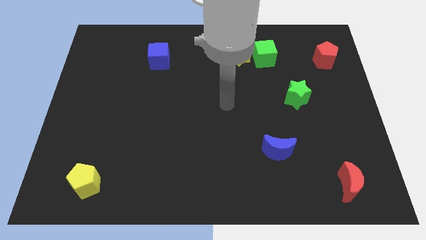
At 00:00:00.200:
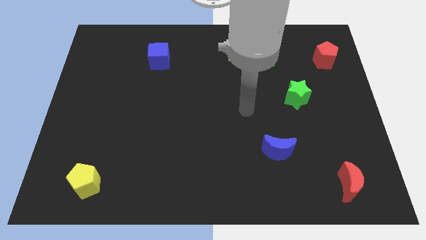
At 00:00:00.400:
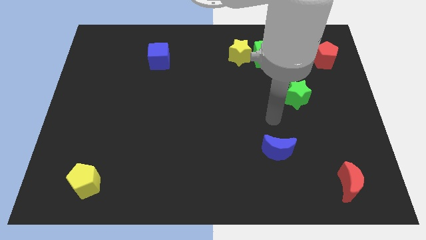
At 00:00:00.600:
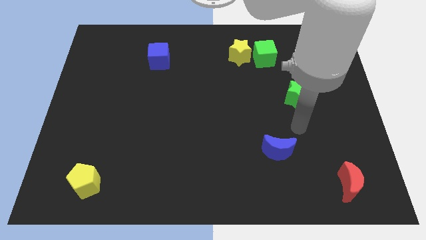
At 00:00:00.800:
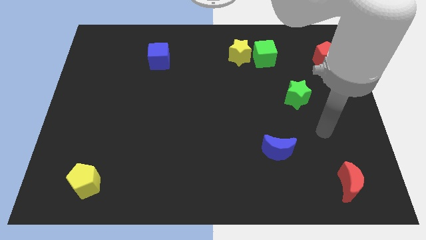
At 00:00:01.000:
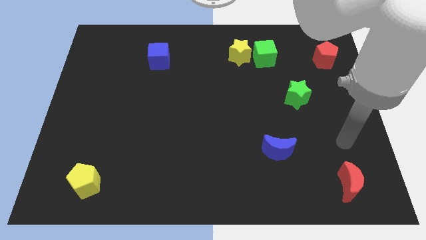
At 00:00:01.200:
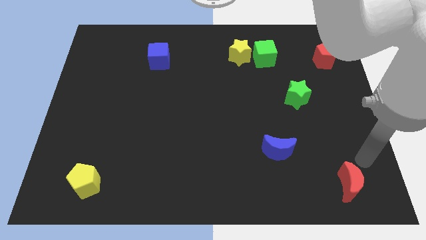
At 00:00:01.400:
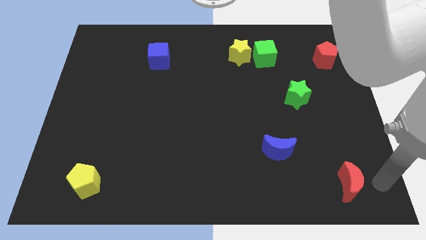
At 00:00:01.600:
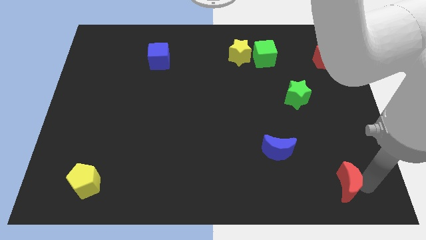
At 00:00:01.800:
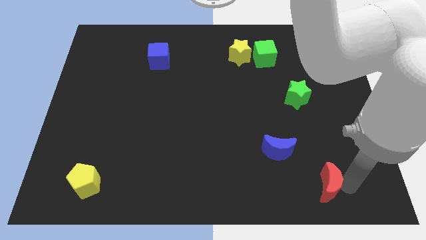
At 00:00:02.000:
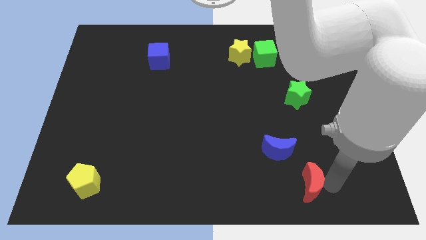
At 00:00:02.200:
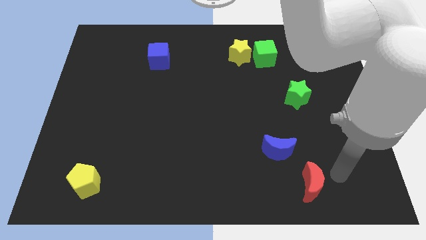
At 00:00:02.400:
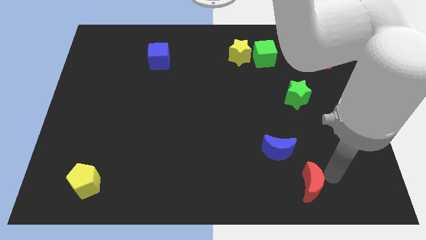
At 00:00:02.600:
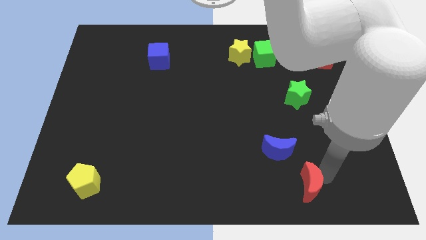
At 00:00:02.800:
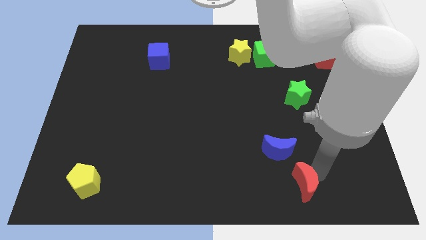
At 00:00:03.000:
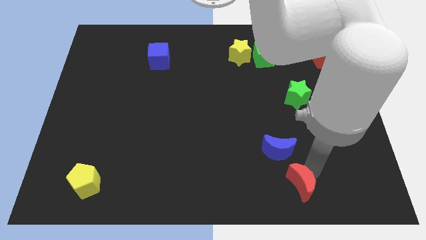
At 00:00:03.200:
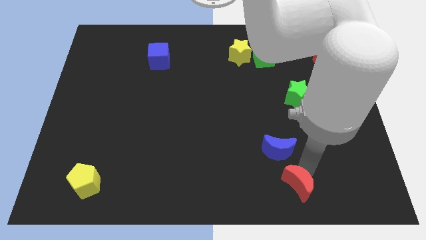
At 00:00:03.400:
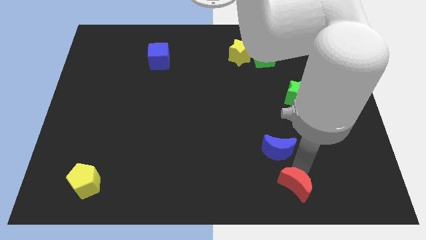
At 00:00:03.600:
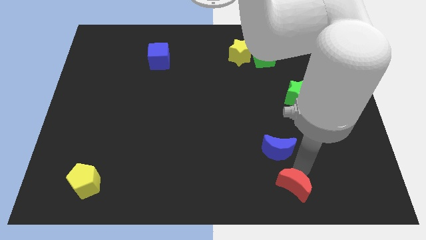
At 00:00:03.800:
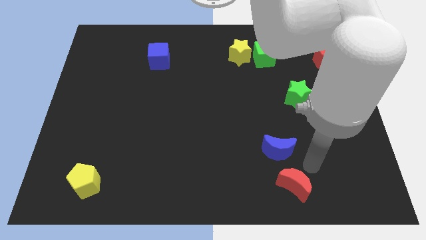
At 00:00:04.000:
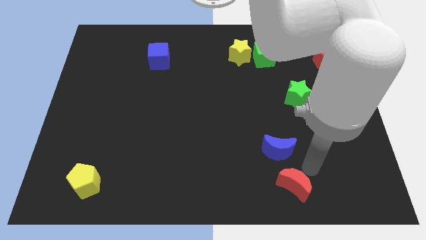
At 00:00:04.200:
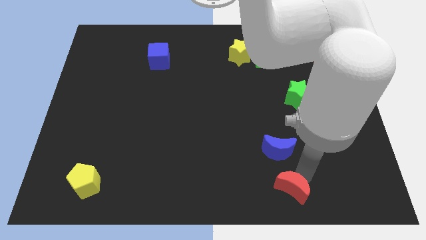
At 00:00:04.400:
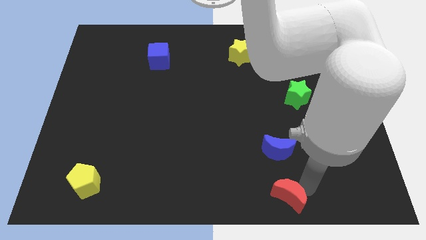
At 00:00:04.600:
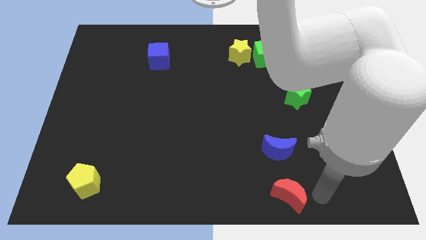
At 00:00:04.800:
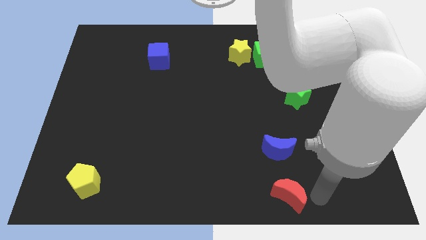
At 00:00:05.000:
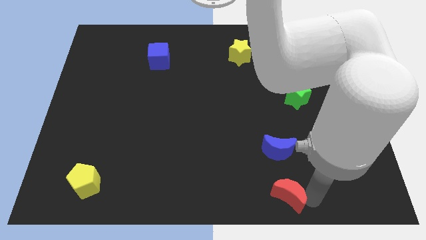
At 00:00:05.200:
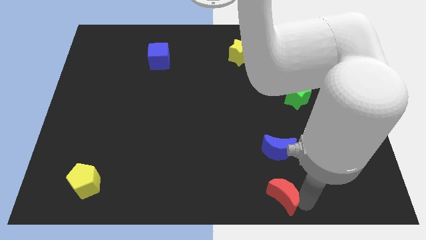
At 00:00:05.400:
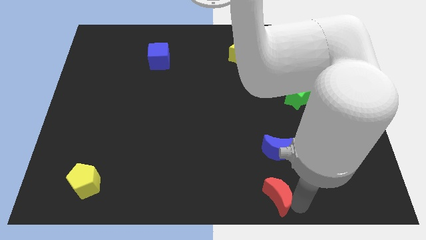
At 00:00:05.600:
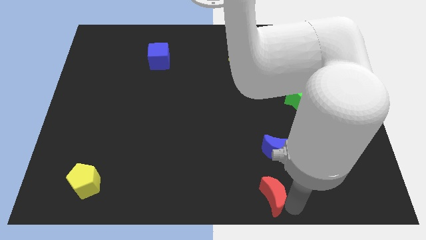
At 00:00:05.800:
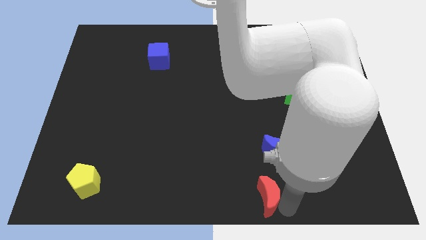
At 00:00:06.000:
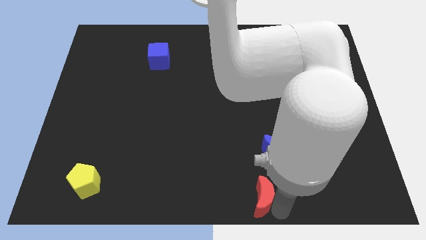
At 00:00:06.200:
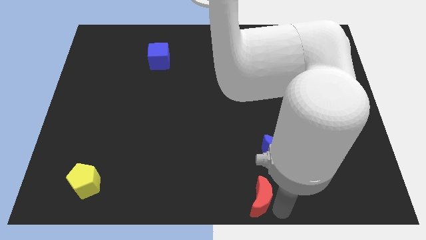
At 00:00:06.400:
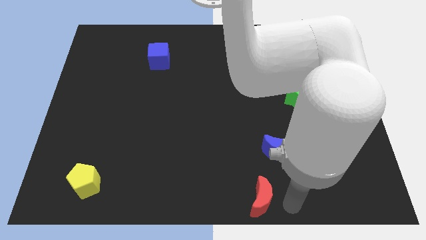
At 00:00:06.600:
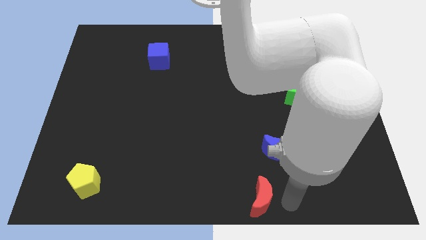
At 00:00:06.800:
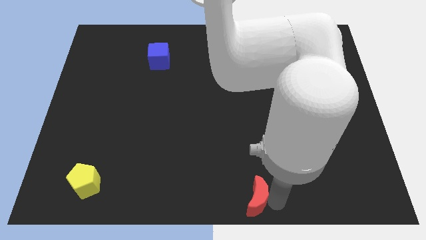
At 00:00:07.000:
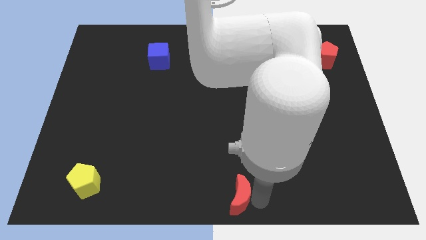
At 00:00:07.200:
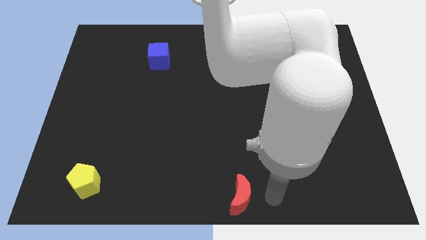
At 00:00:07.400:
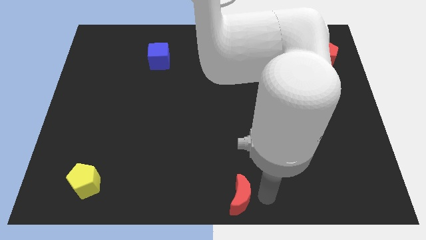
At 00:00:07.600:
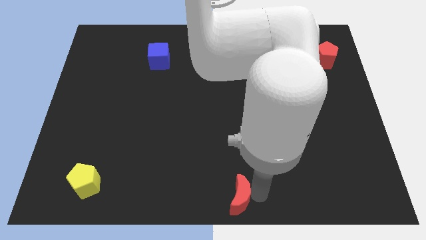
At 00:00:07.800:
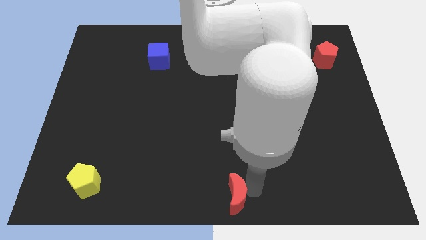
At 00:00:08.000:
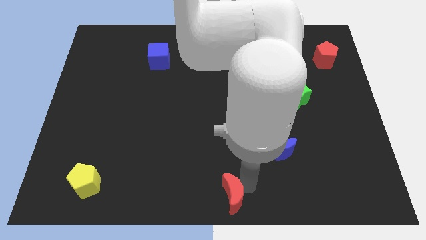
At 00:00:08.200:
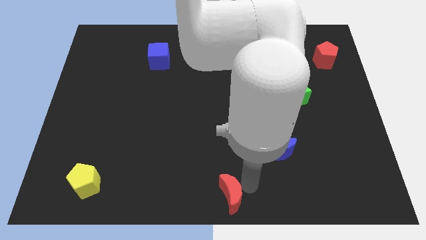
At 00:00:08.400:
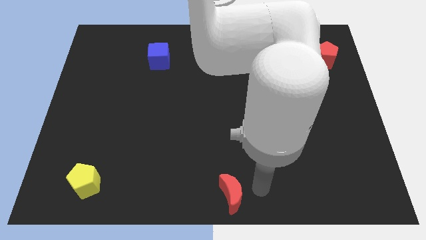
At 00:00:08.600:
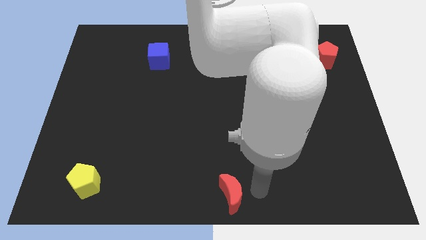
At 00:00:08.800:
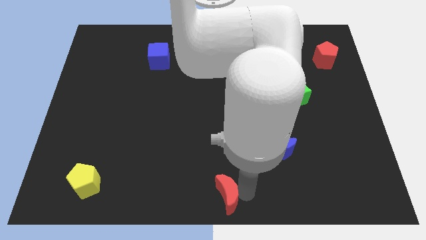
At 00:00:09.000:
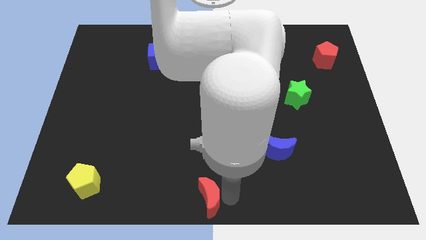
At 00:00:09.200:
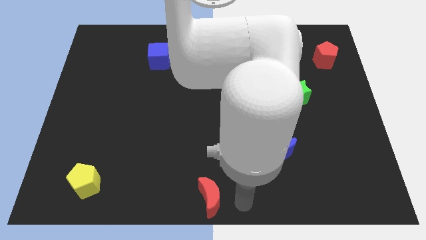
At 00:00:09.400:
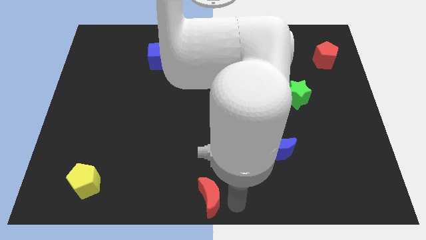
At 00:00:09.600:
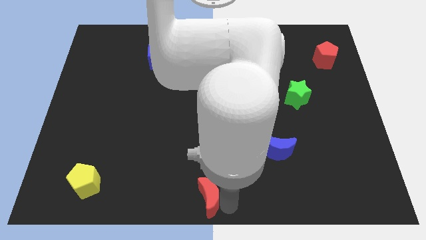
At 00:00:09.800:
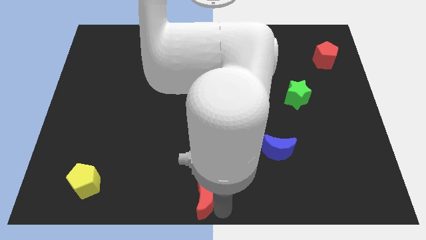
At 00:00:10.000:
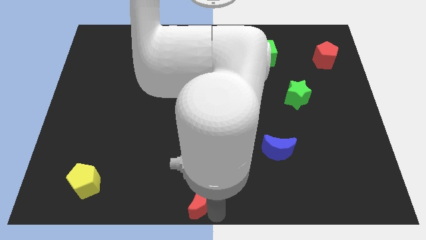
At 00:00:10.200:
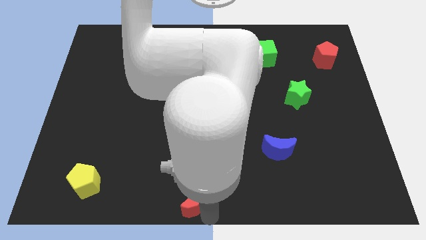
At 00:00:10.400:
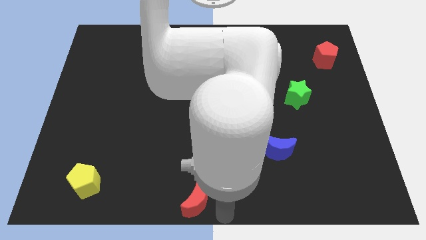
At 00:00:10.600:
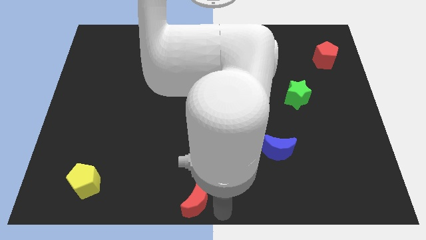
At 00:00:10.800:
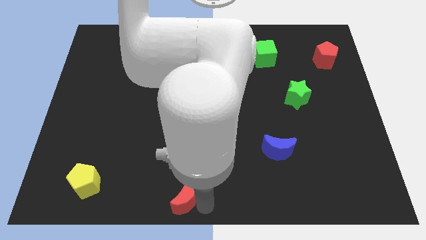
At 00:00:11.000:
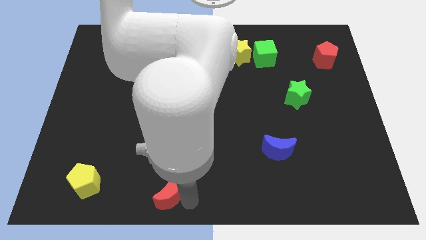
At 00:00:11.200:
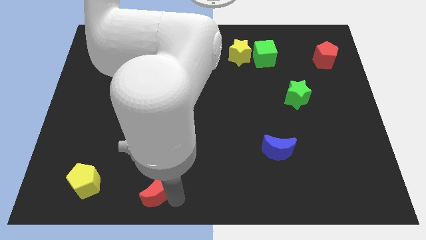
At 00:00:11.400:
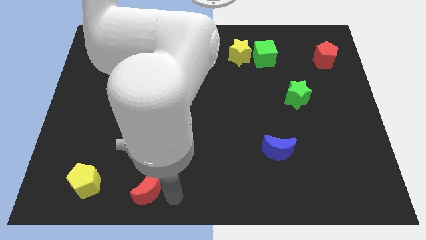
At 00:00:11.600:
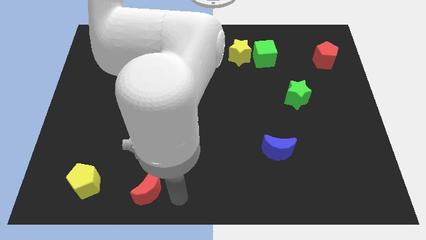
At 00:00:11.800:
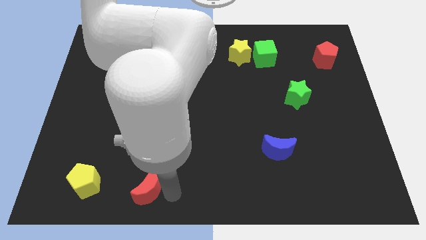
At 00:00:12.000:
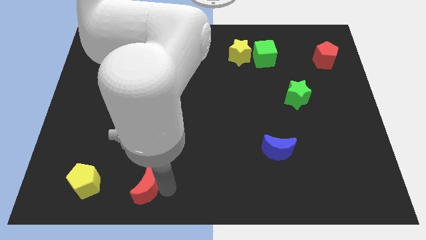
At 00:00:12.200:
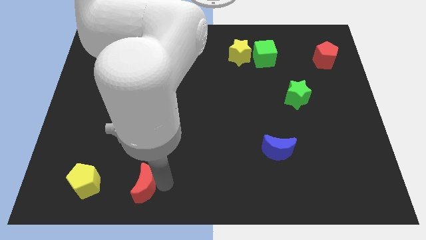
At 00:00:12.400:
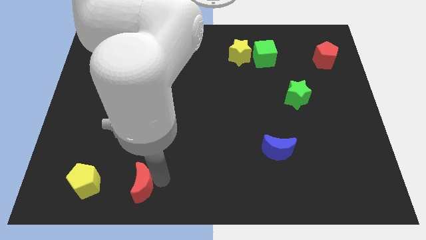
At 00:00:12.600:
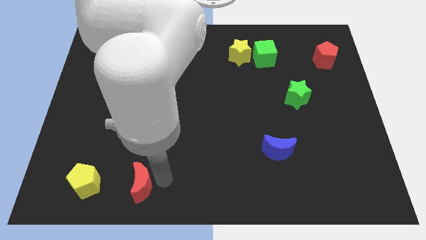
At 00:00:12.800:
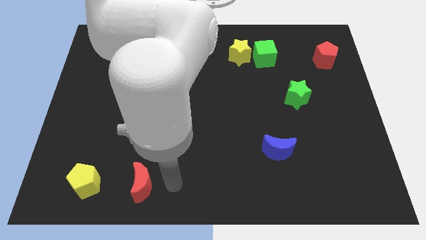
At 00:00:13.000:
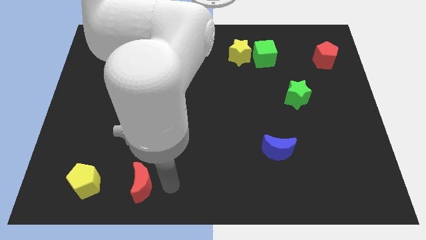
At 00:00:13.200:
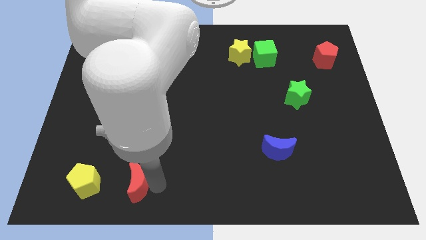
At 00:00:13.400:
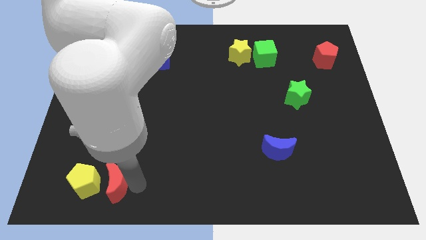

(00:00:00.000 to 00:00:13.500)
slide the red moon next to the yellow pentagon

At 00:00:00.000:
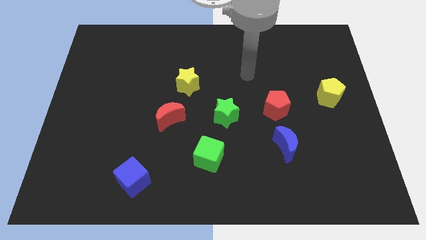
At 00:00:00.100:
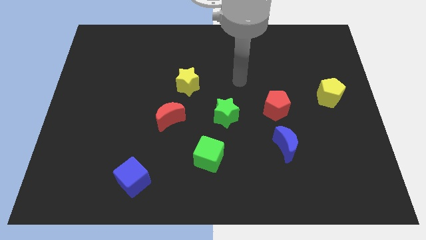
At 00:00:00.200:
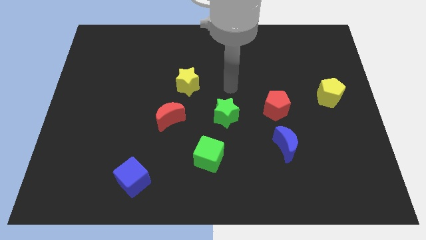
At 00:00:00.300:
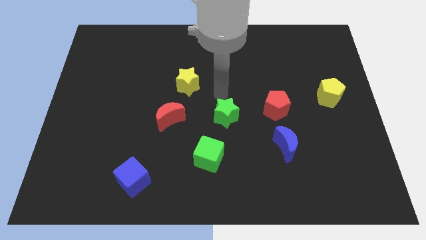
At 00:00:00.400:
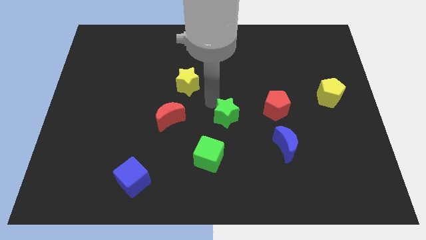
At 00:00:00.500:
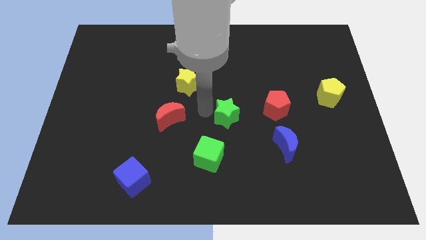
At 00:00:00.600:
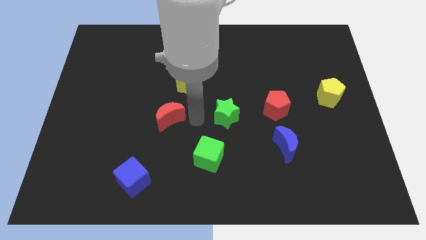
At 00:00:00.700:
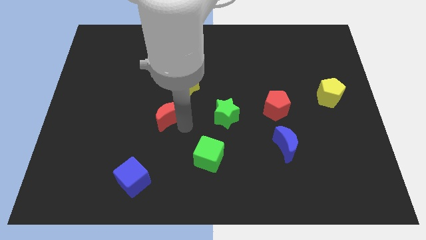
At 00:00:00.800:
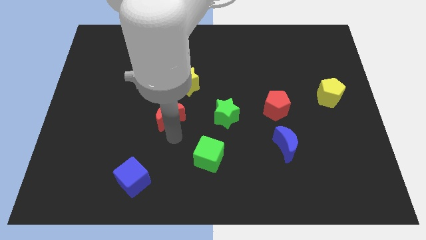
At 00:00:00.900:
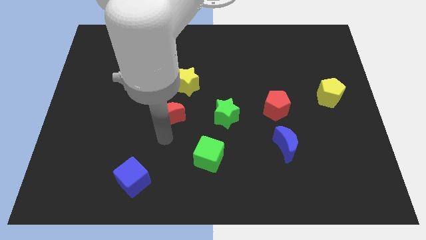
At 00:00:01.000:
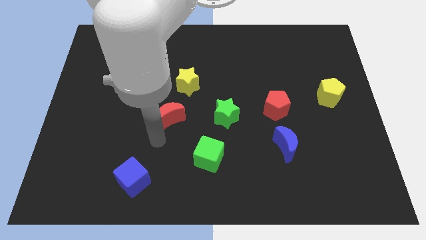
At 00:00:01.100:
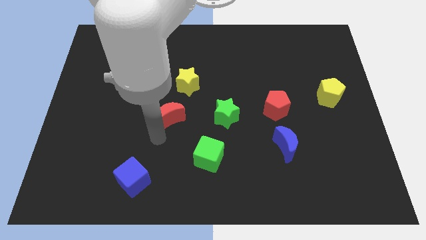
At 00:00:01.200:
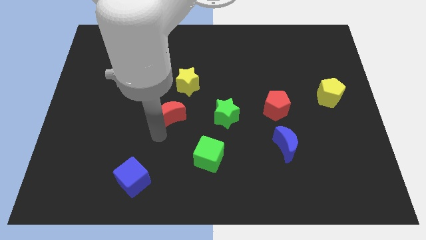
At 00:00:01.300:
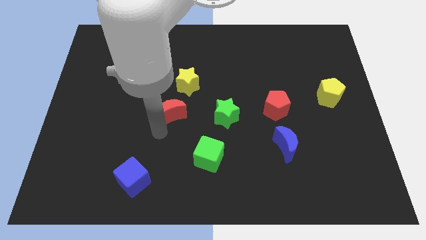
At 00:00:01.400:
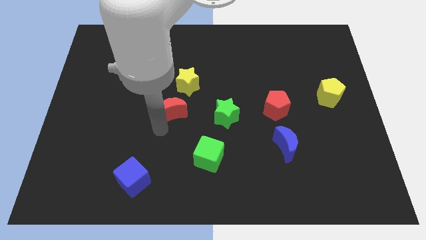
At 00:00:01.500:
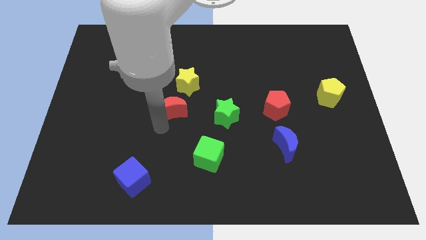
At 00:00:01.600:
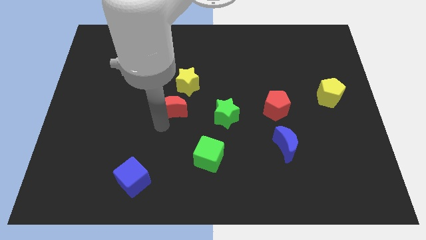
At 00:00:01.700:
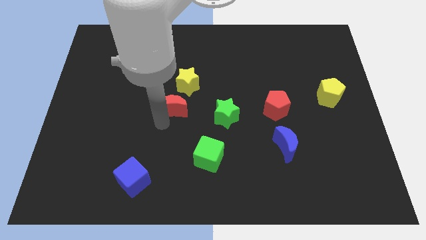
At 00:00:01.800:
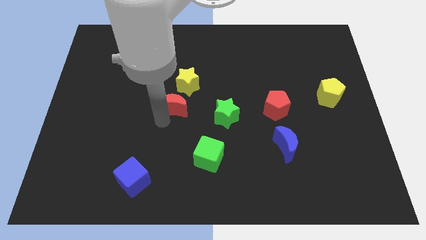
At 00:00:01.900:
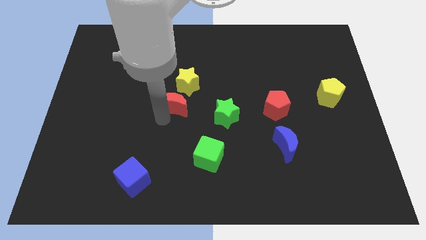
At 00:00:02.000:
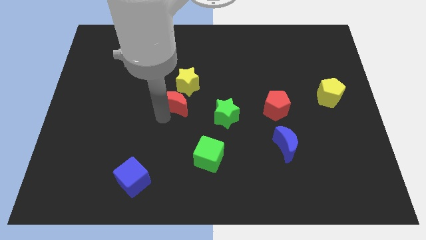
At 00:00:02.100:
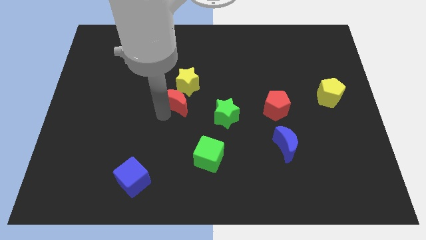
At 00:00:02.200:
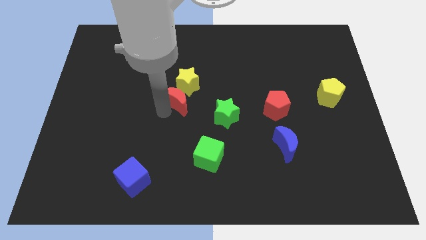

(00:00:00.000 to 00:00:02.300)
move the red moon close to the yellow star
